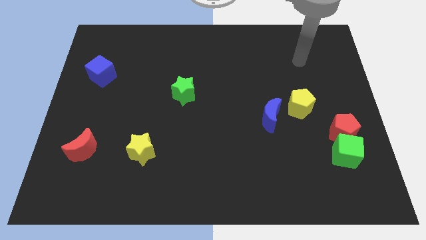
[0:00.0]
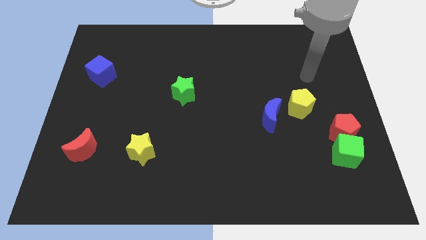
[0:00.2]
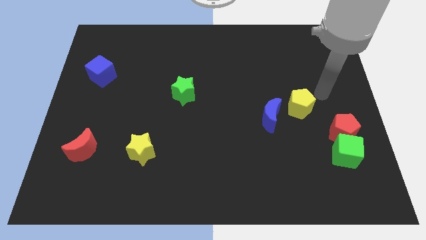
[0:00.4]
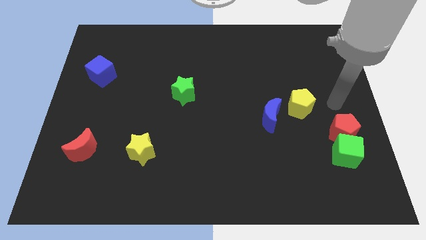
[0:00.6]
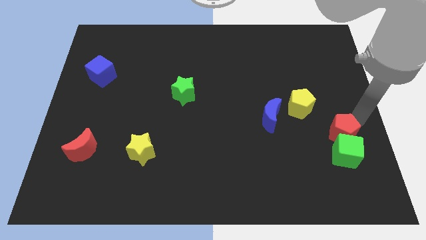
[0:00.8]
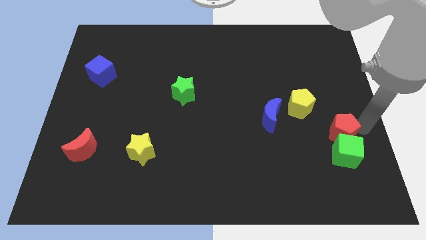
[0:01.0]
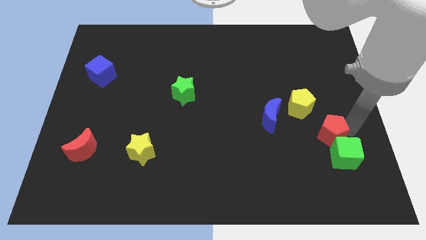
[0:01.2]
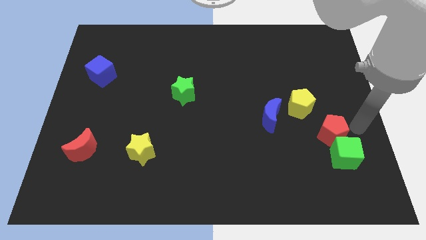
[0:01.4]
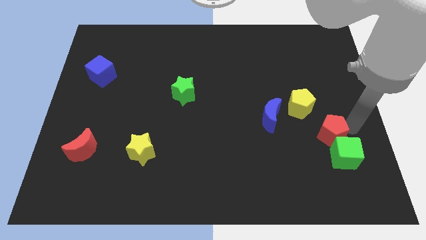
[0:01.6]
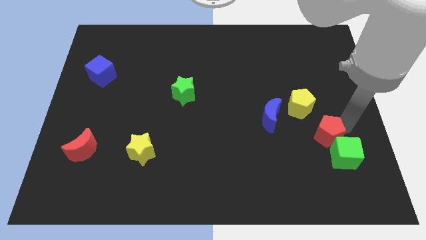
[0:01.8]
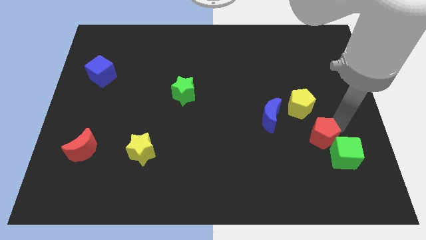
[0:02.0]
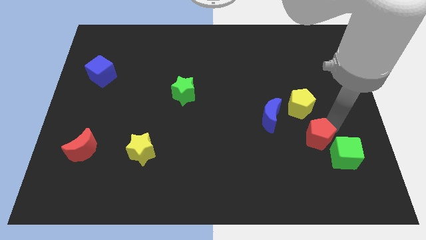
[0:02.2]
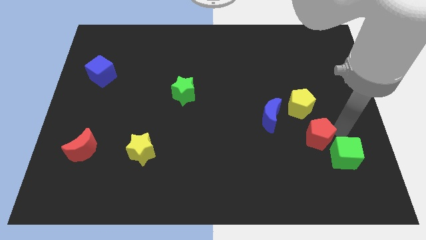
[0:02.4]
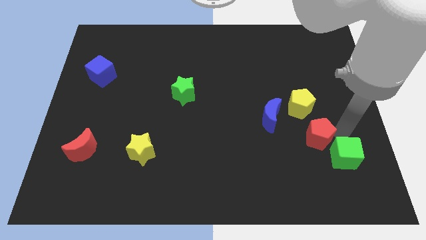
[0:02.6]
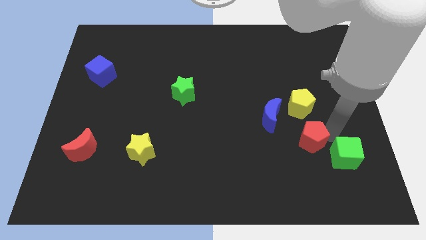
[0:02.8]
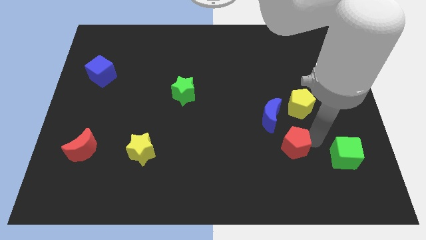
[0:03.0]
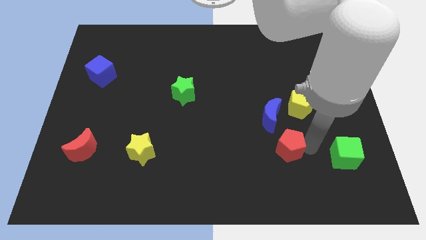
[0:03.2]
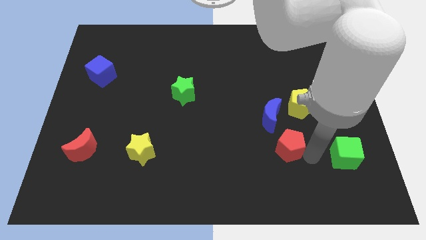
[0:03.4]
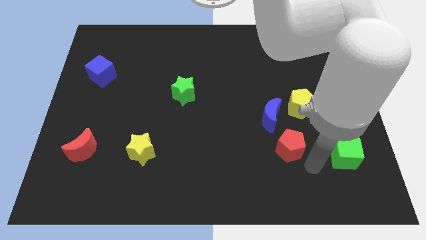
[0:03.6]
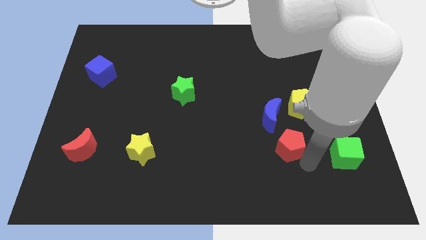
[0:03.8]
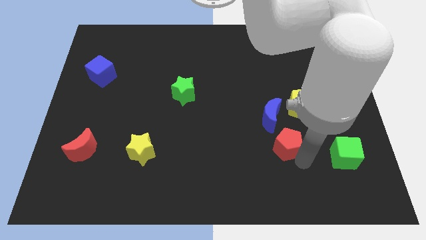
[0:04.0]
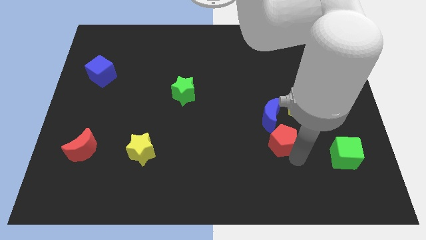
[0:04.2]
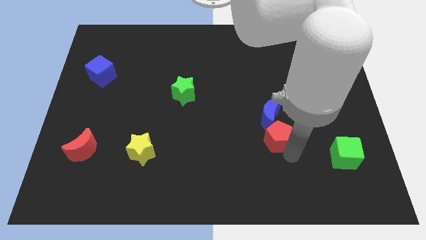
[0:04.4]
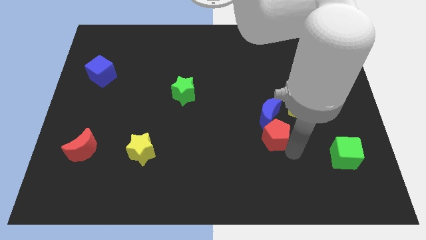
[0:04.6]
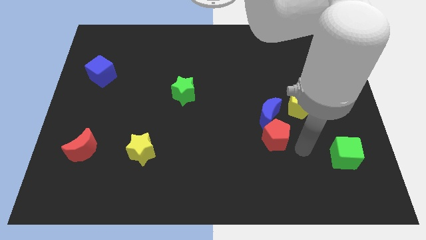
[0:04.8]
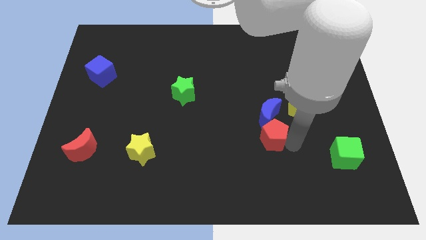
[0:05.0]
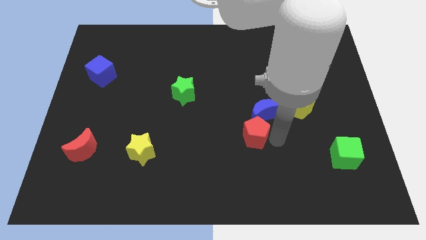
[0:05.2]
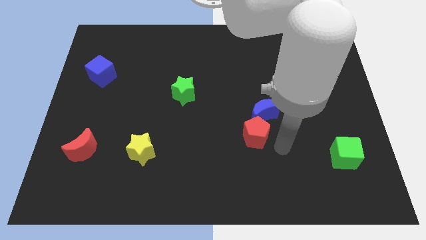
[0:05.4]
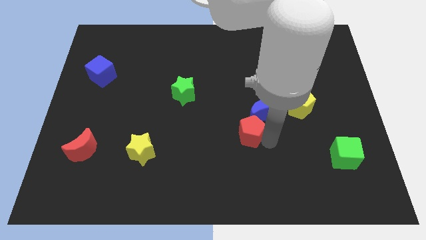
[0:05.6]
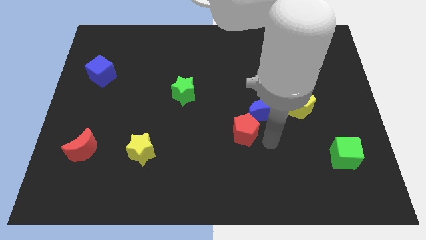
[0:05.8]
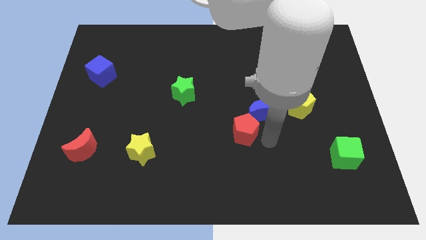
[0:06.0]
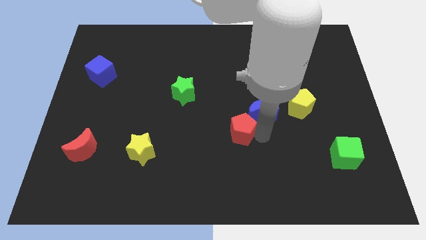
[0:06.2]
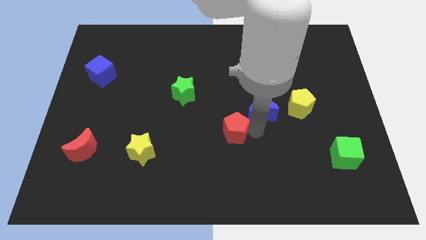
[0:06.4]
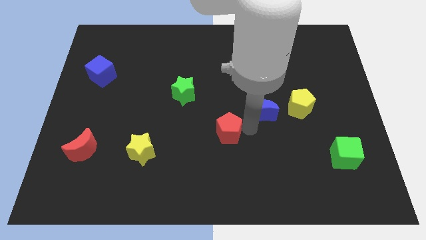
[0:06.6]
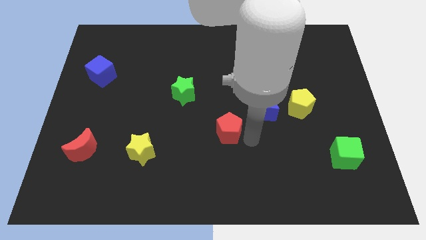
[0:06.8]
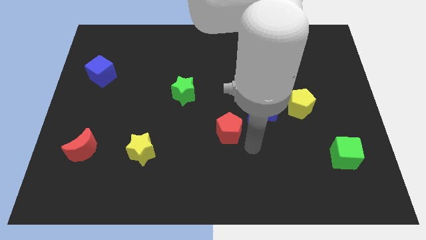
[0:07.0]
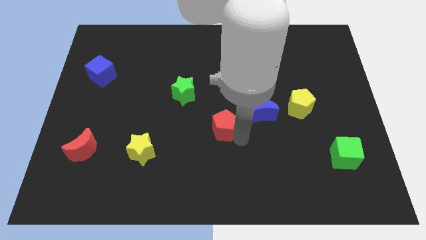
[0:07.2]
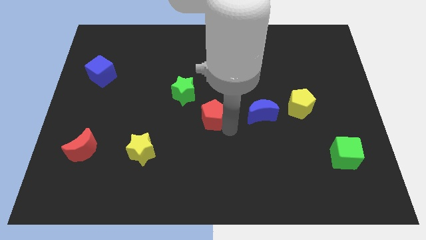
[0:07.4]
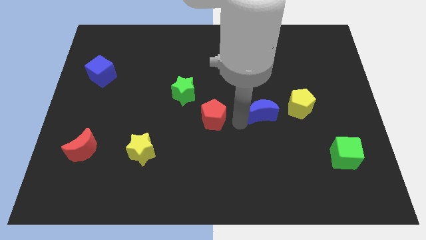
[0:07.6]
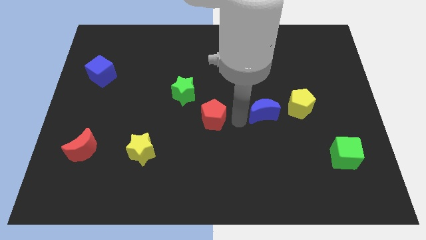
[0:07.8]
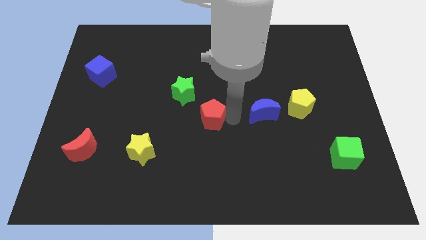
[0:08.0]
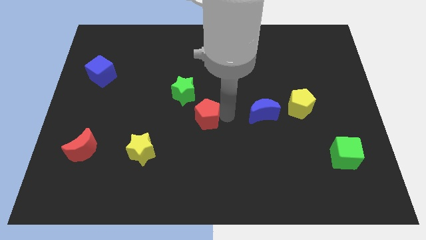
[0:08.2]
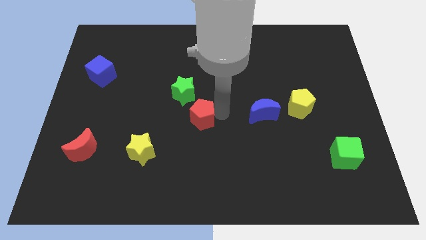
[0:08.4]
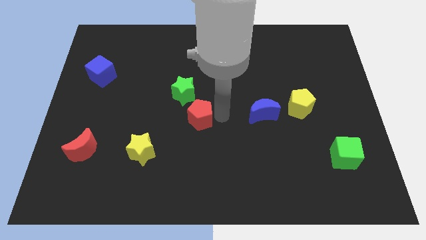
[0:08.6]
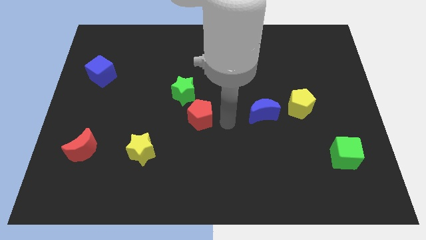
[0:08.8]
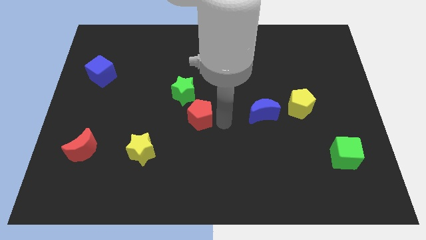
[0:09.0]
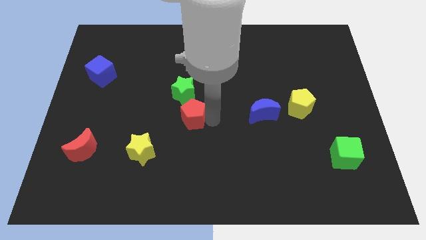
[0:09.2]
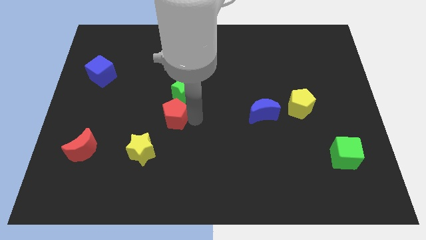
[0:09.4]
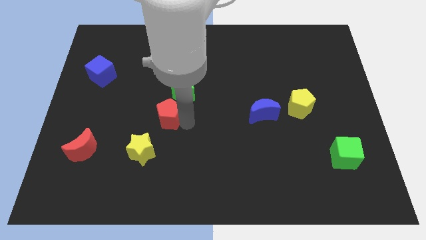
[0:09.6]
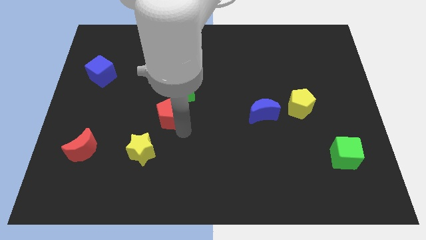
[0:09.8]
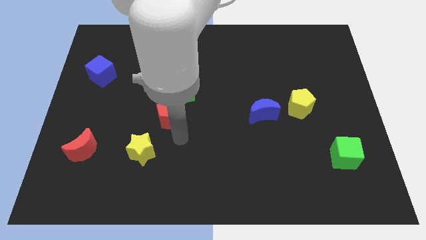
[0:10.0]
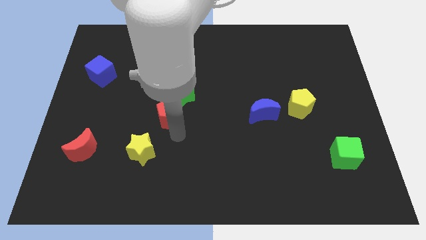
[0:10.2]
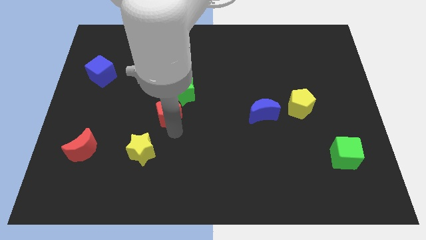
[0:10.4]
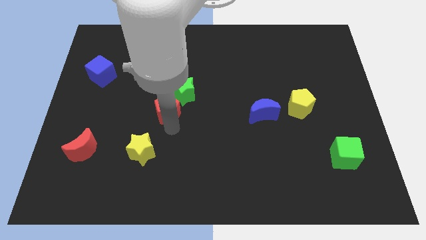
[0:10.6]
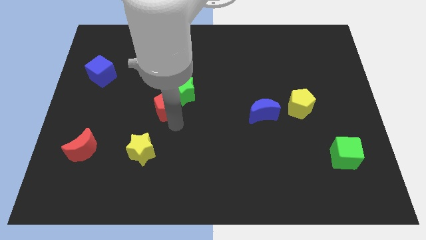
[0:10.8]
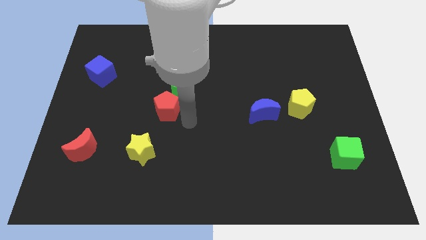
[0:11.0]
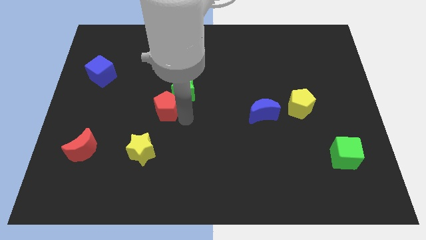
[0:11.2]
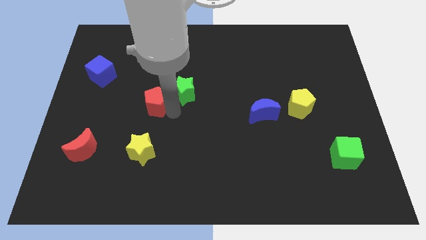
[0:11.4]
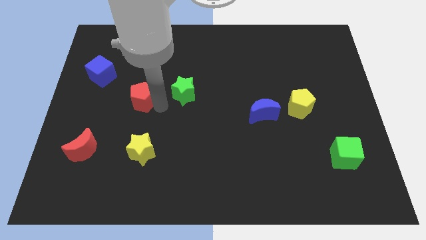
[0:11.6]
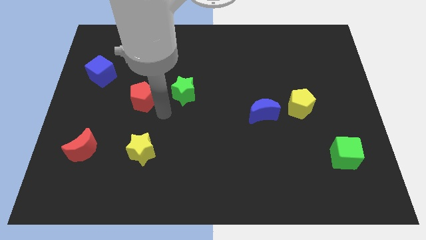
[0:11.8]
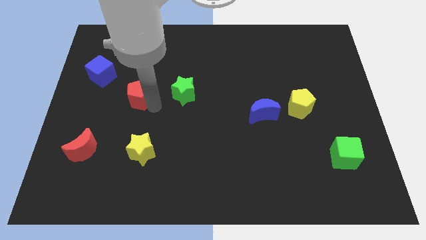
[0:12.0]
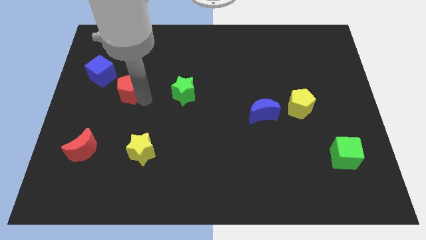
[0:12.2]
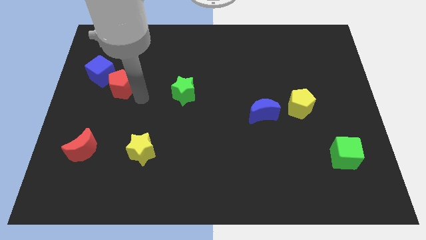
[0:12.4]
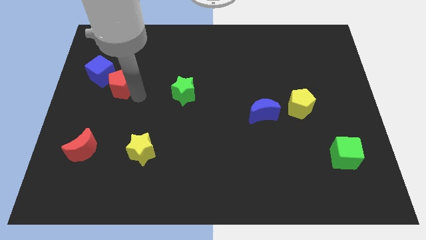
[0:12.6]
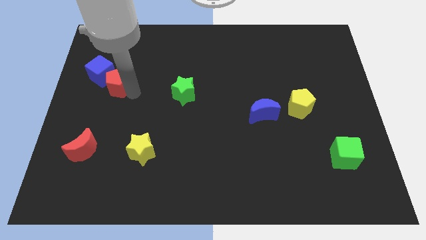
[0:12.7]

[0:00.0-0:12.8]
push the red pentagon next to the blue cube

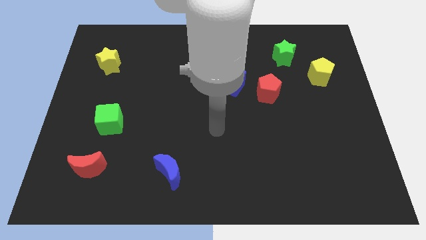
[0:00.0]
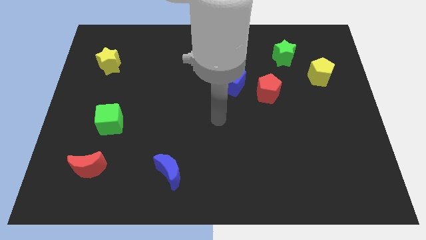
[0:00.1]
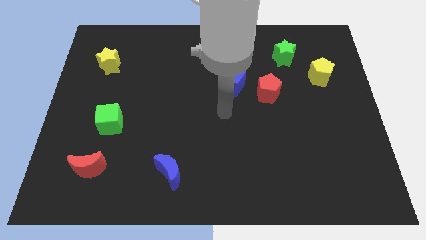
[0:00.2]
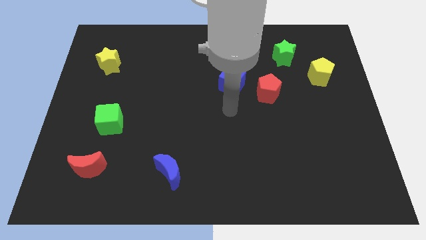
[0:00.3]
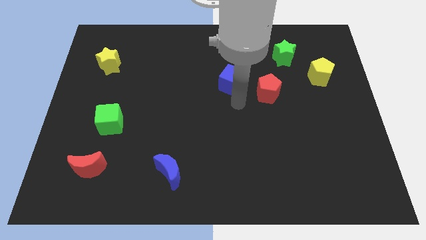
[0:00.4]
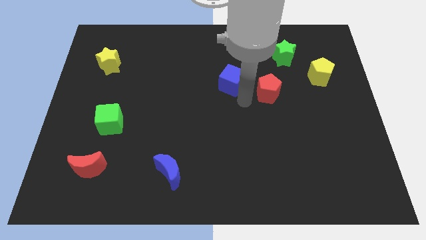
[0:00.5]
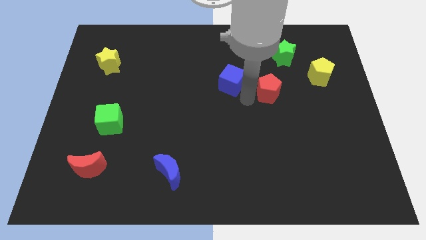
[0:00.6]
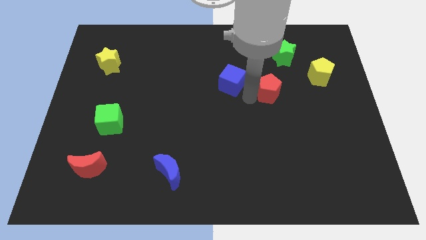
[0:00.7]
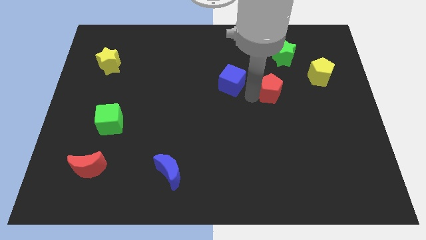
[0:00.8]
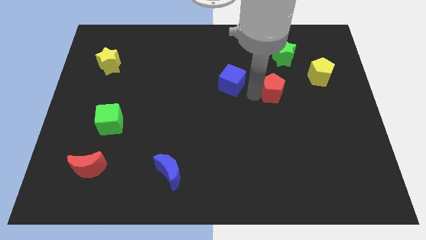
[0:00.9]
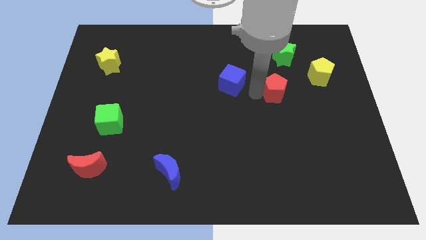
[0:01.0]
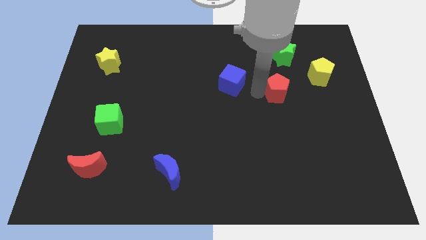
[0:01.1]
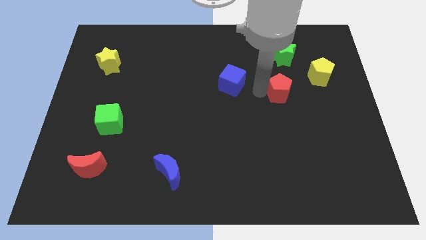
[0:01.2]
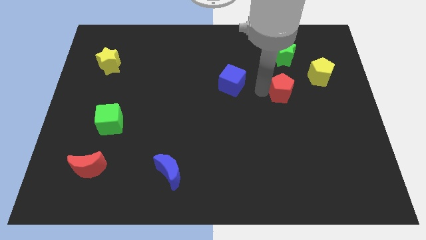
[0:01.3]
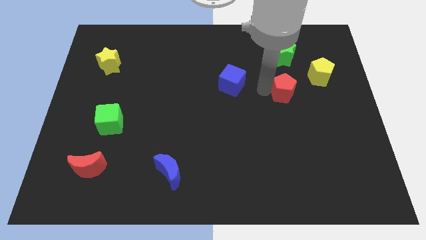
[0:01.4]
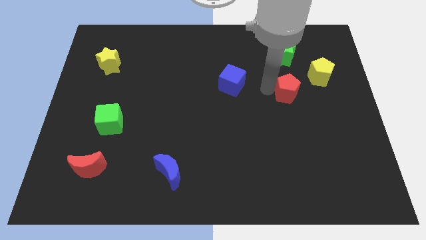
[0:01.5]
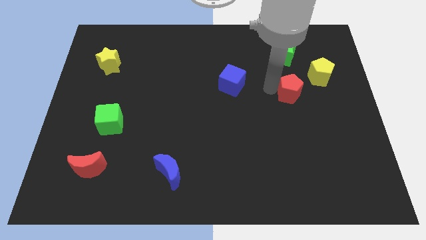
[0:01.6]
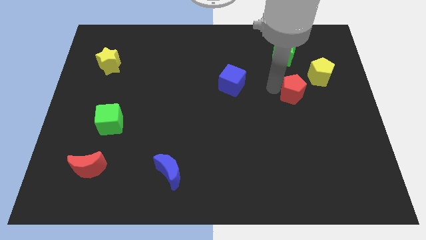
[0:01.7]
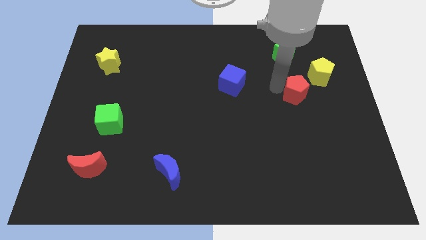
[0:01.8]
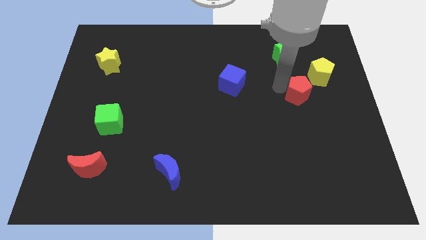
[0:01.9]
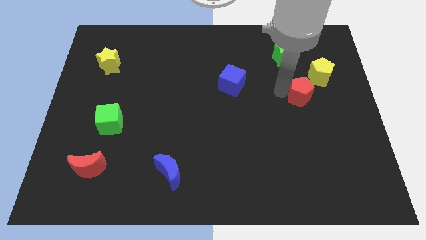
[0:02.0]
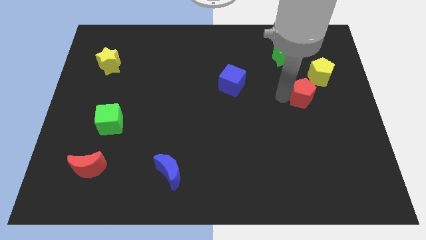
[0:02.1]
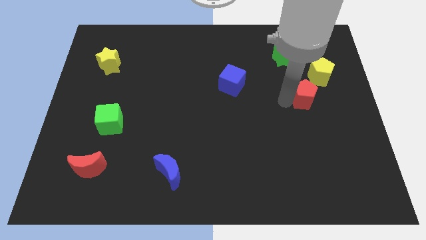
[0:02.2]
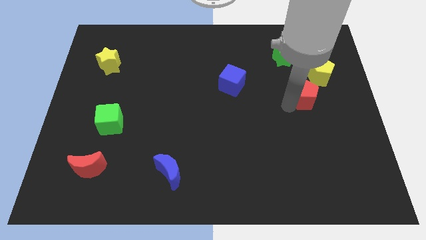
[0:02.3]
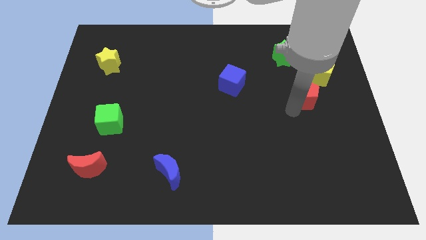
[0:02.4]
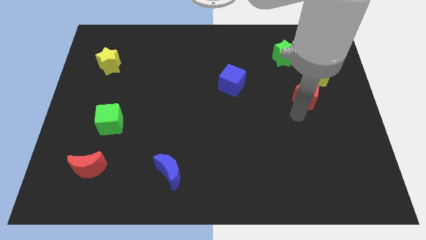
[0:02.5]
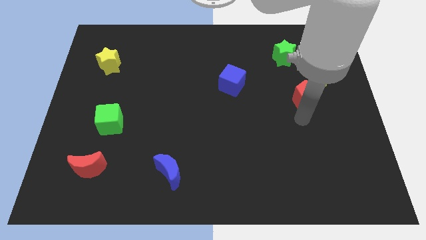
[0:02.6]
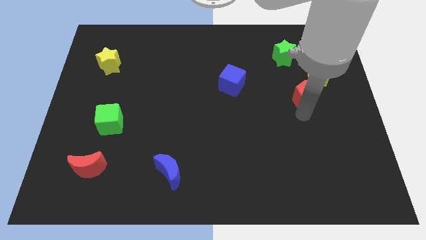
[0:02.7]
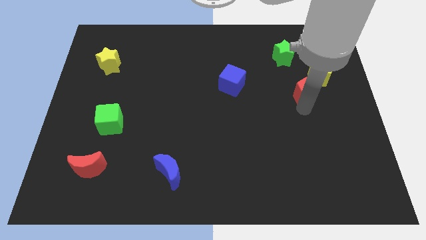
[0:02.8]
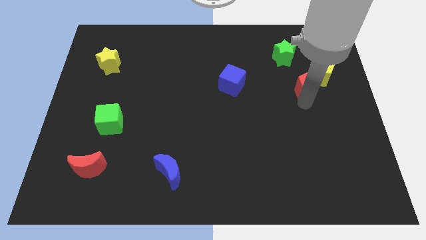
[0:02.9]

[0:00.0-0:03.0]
slide the red pentagon towards the yellow pentagon
